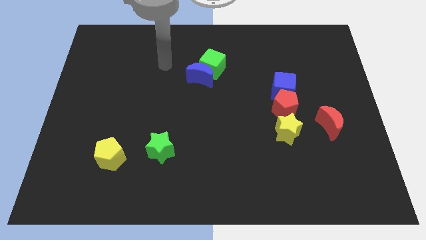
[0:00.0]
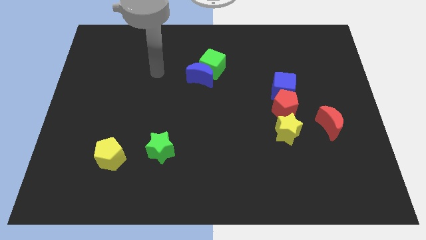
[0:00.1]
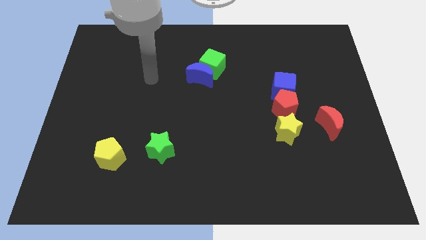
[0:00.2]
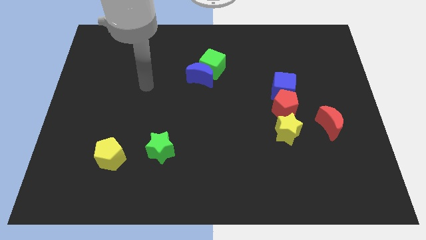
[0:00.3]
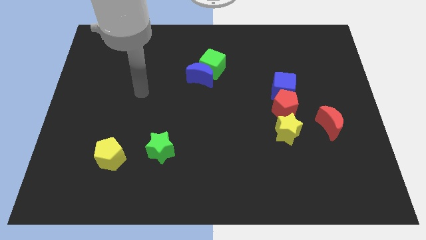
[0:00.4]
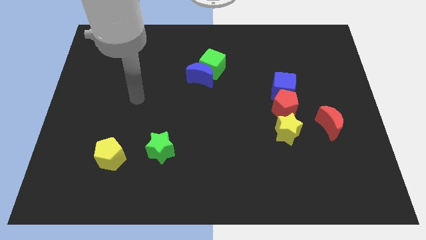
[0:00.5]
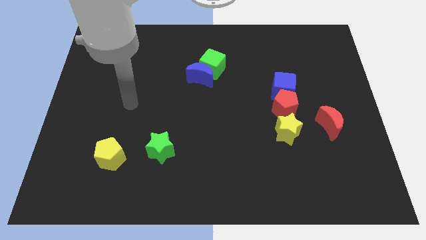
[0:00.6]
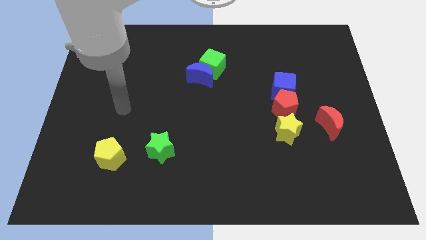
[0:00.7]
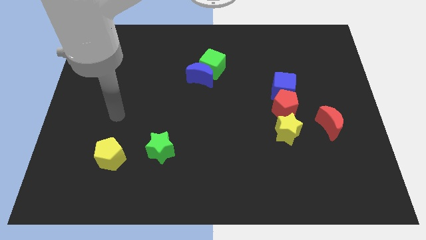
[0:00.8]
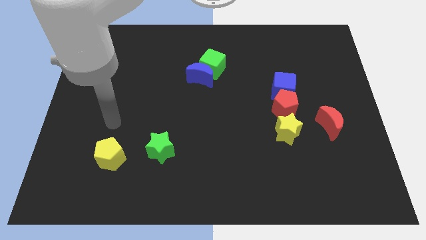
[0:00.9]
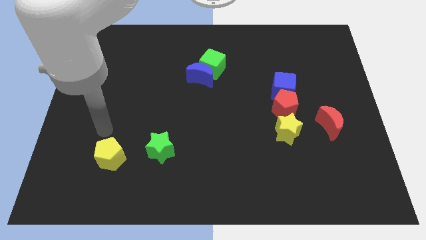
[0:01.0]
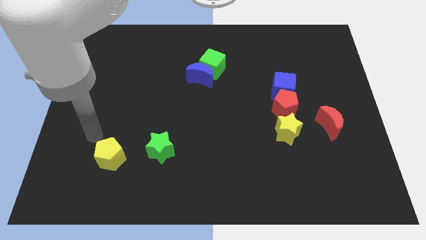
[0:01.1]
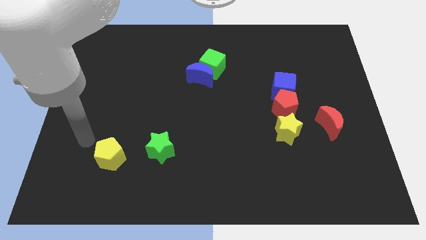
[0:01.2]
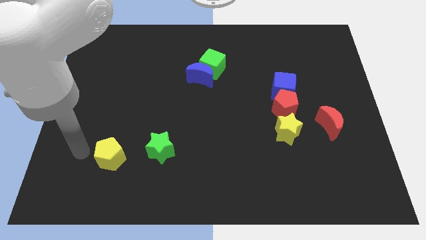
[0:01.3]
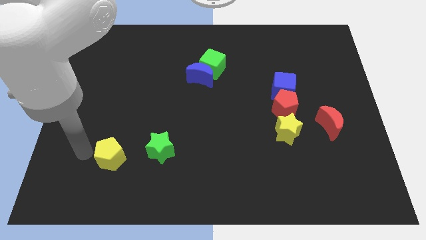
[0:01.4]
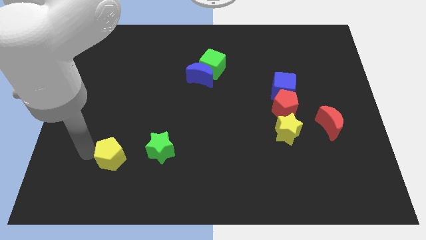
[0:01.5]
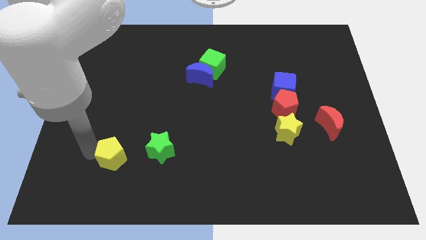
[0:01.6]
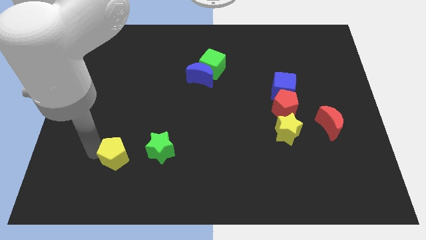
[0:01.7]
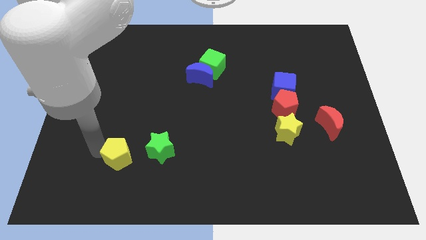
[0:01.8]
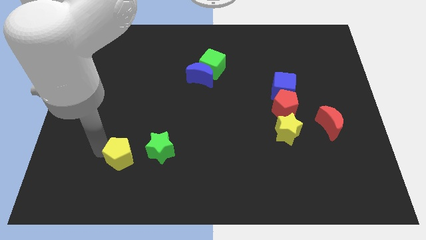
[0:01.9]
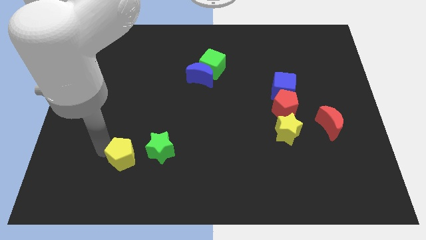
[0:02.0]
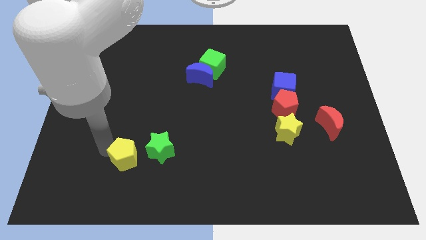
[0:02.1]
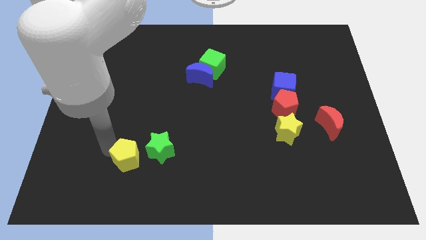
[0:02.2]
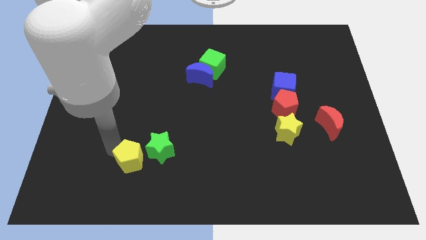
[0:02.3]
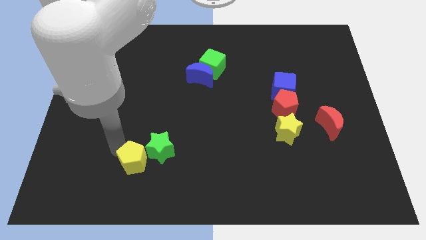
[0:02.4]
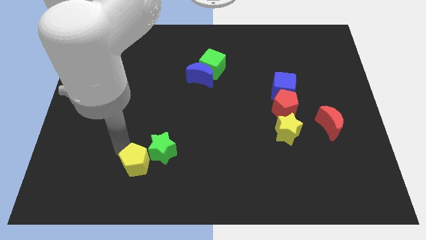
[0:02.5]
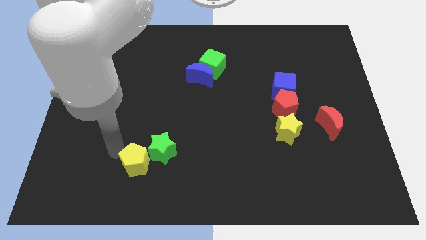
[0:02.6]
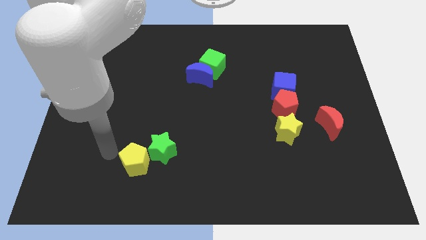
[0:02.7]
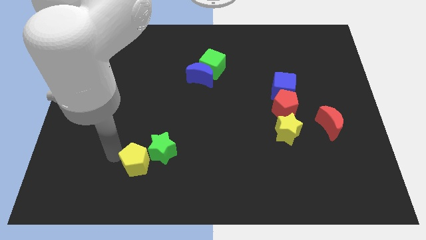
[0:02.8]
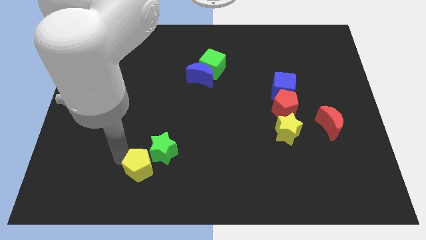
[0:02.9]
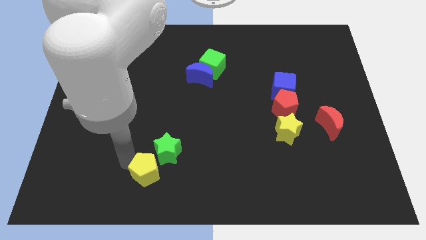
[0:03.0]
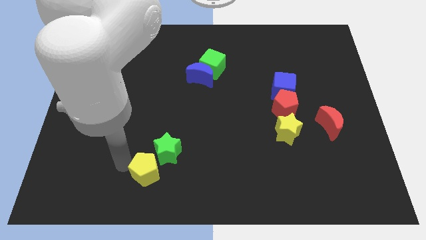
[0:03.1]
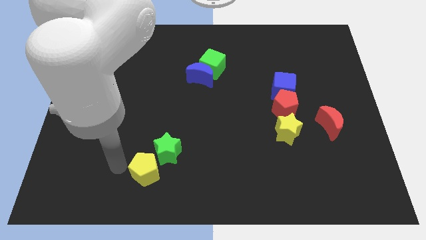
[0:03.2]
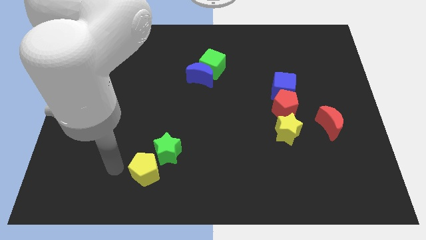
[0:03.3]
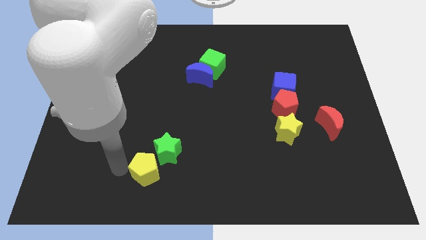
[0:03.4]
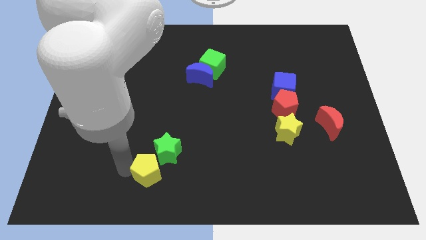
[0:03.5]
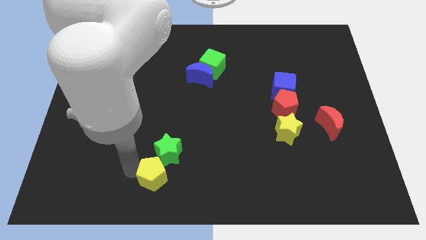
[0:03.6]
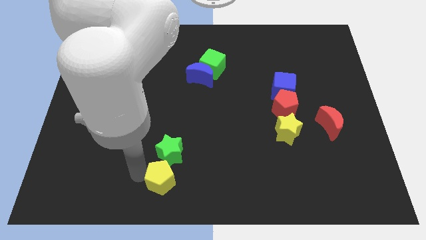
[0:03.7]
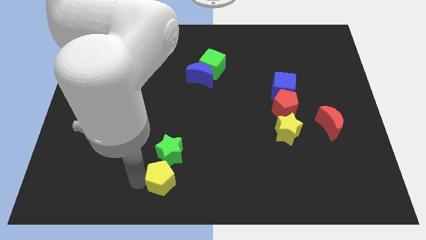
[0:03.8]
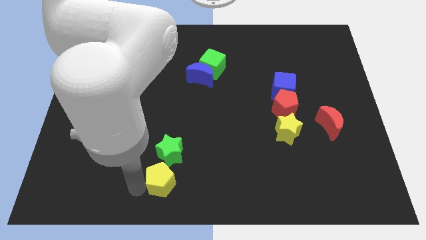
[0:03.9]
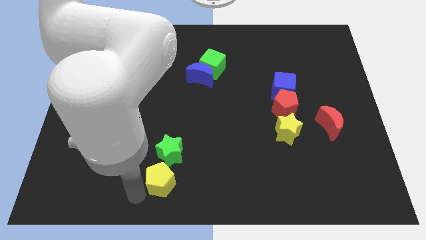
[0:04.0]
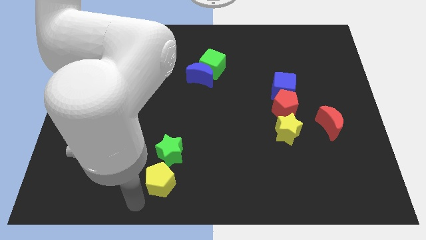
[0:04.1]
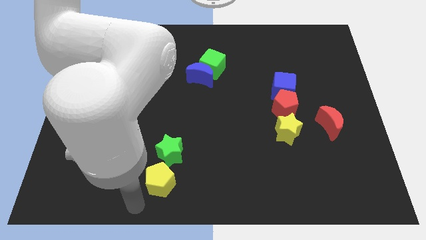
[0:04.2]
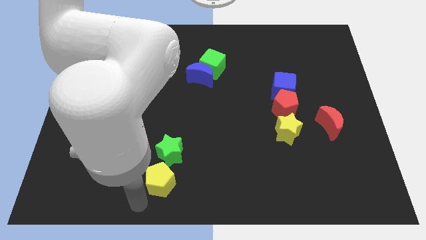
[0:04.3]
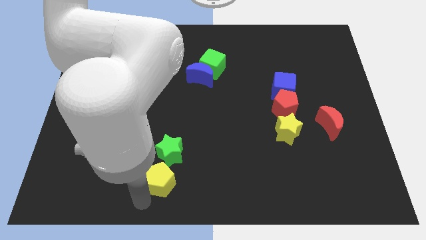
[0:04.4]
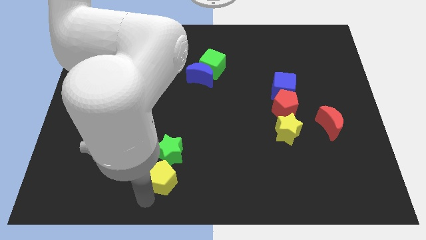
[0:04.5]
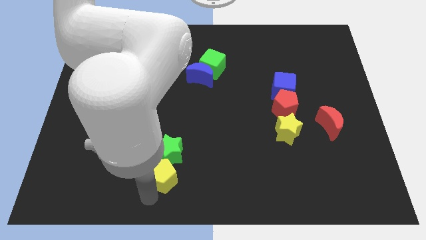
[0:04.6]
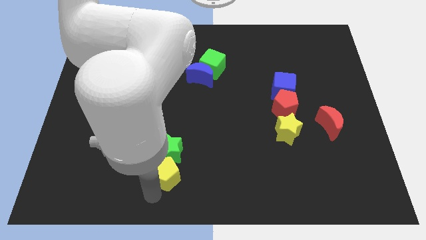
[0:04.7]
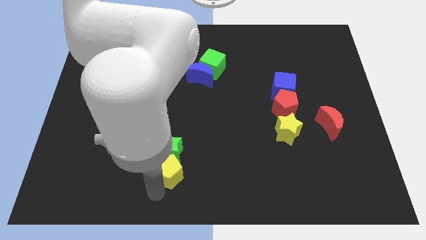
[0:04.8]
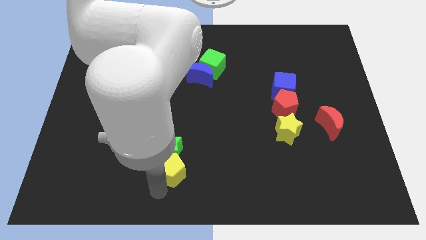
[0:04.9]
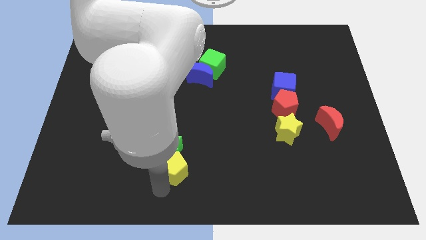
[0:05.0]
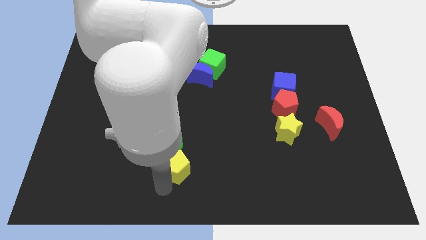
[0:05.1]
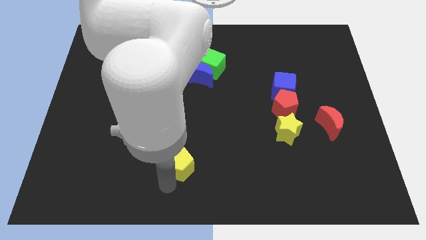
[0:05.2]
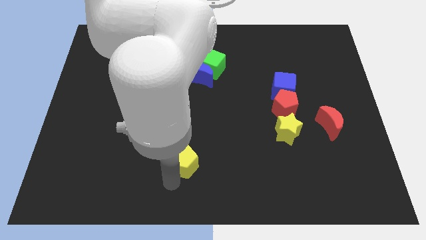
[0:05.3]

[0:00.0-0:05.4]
move the yellow pentagon to the right of the green star

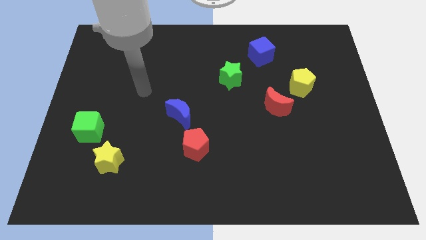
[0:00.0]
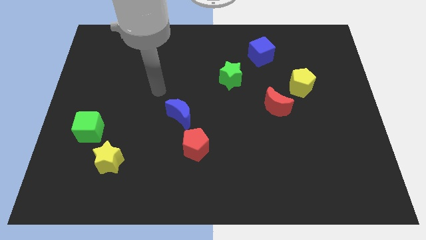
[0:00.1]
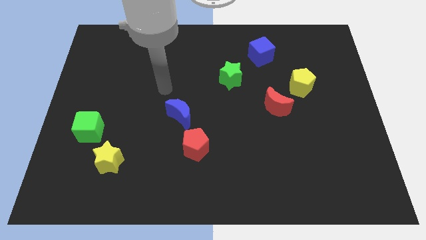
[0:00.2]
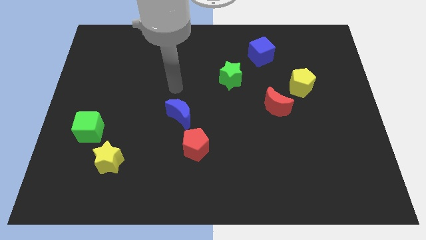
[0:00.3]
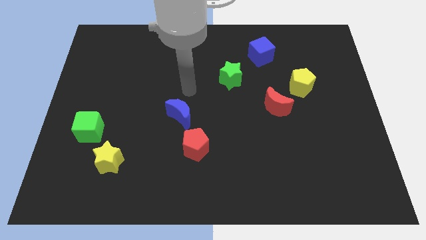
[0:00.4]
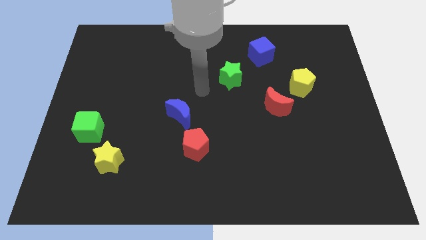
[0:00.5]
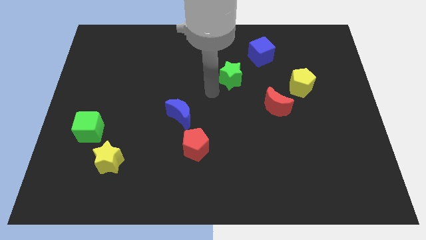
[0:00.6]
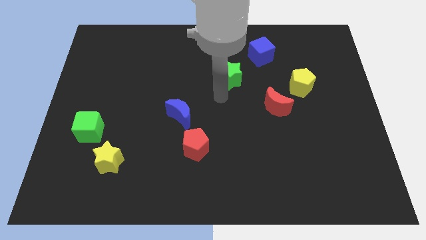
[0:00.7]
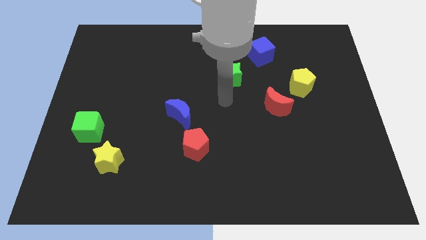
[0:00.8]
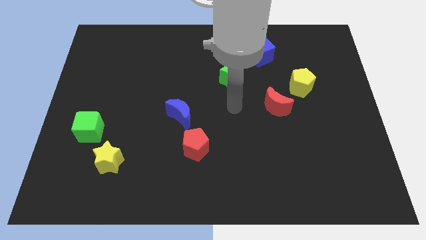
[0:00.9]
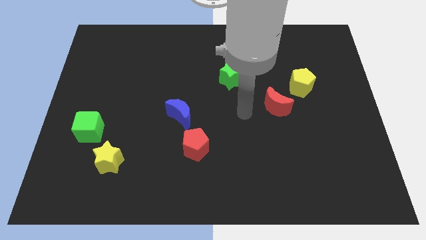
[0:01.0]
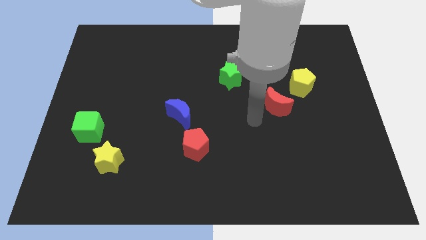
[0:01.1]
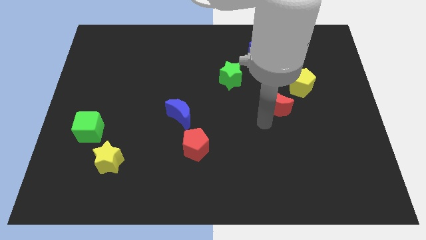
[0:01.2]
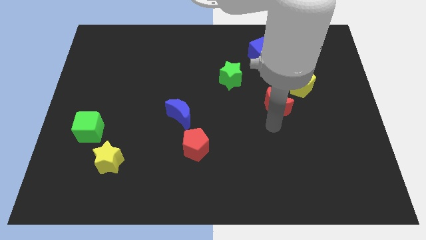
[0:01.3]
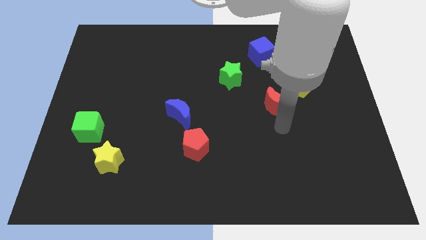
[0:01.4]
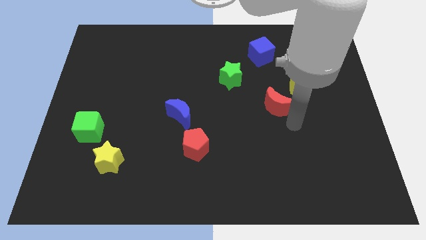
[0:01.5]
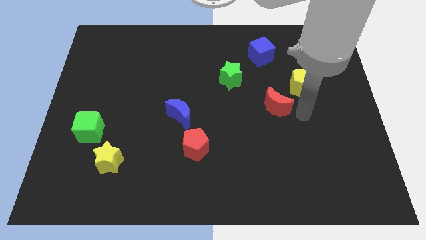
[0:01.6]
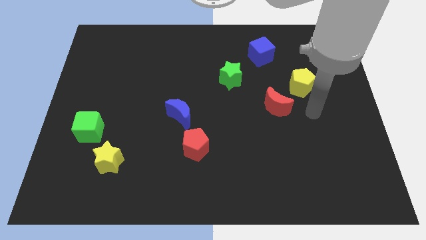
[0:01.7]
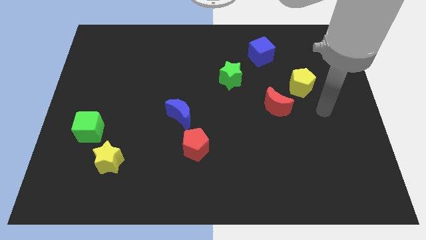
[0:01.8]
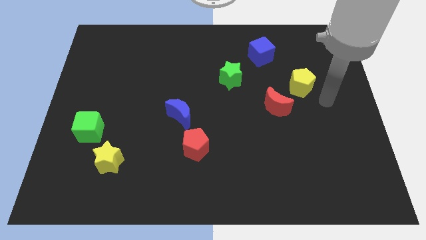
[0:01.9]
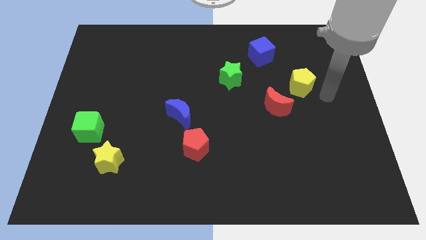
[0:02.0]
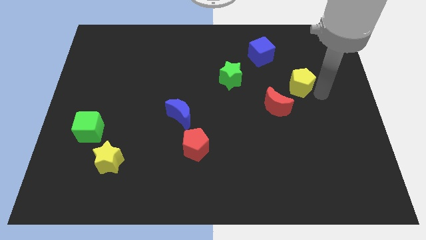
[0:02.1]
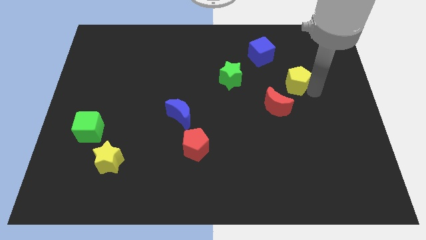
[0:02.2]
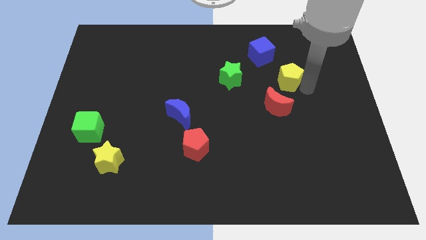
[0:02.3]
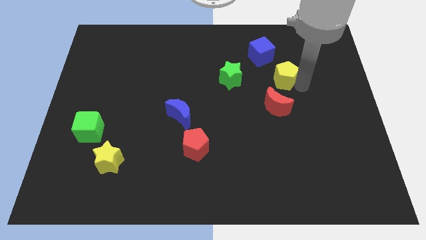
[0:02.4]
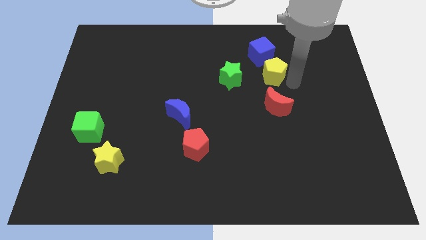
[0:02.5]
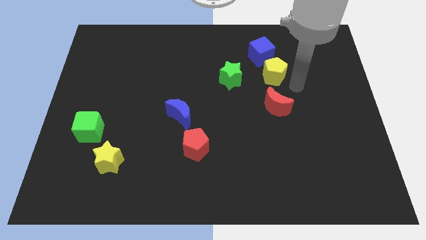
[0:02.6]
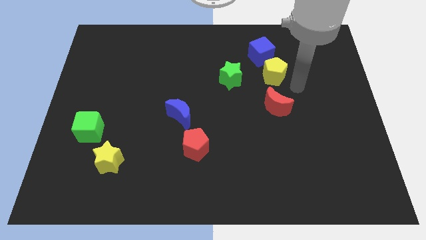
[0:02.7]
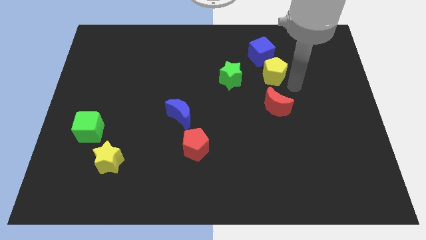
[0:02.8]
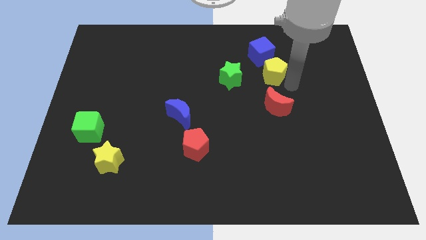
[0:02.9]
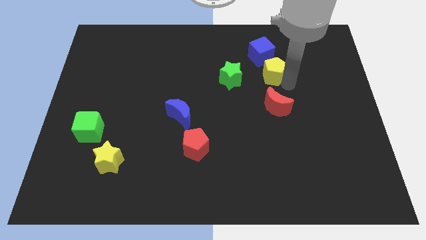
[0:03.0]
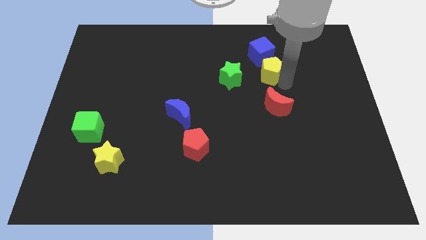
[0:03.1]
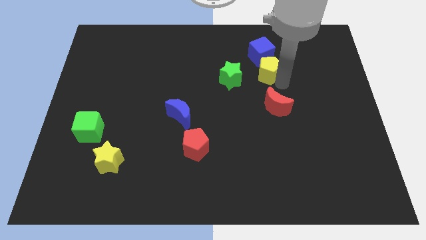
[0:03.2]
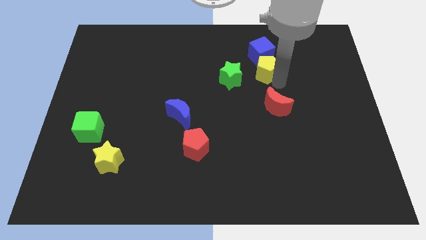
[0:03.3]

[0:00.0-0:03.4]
move the yellow pentagon to the top right of the green star
